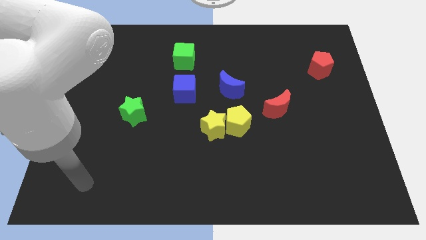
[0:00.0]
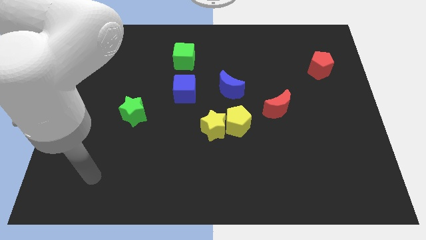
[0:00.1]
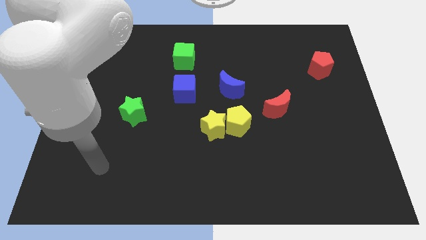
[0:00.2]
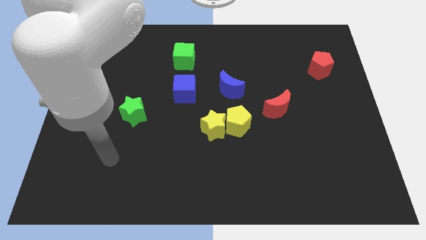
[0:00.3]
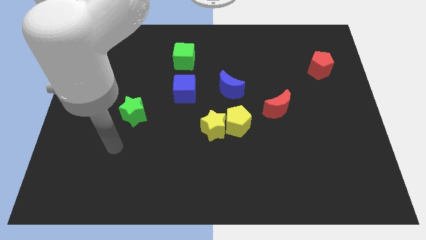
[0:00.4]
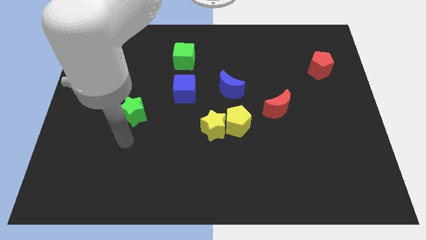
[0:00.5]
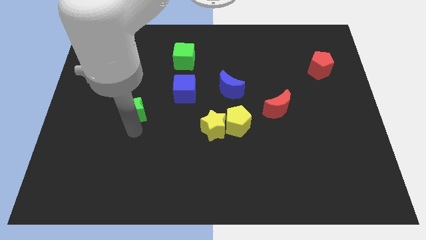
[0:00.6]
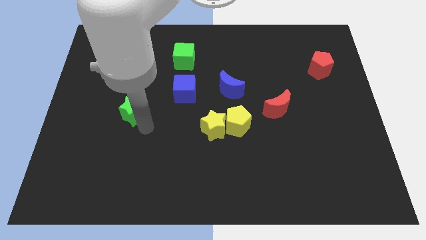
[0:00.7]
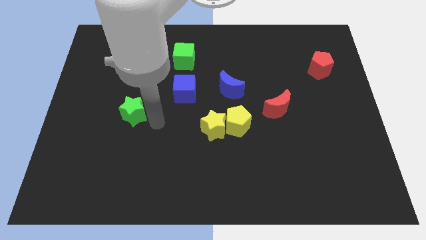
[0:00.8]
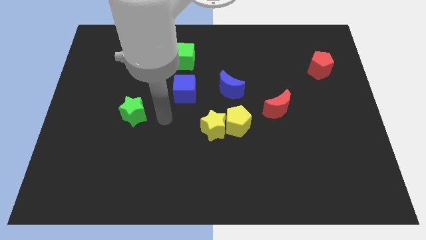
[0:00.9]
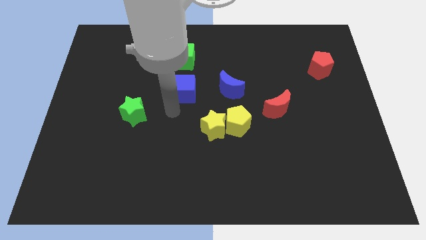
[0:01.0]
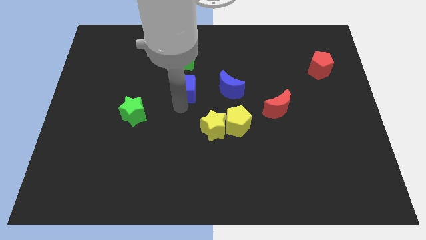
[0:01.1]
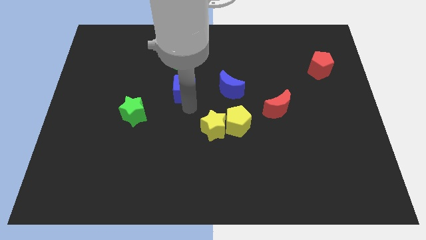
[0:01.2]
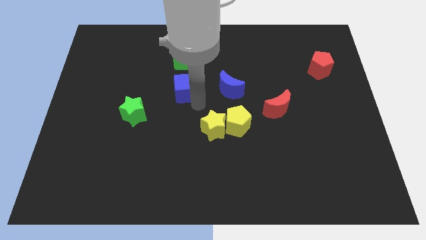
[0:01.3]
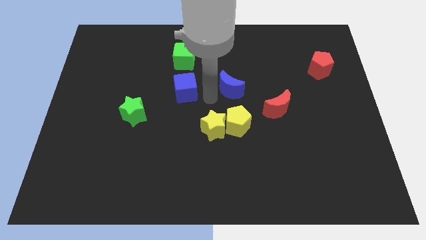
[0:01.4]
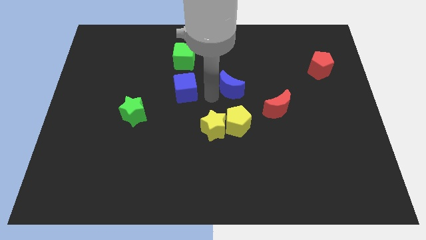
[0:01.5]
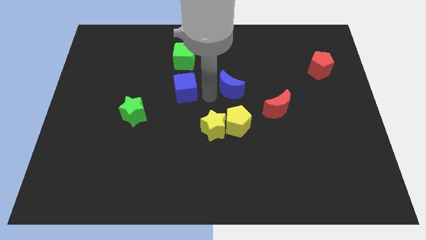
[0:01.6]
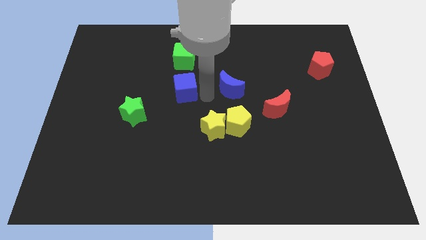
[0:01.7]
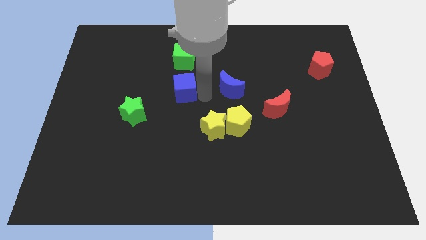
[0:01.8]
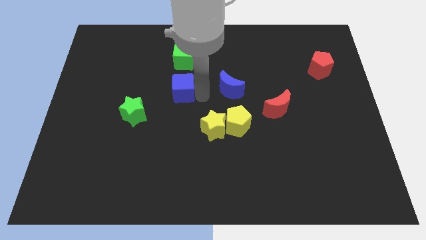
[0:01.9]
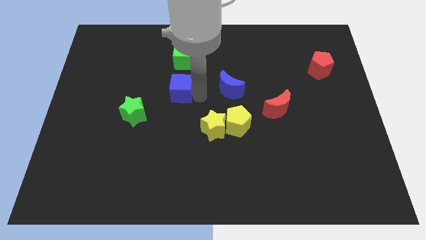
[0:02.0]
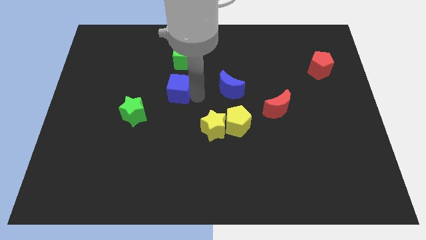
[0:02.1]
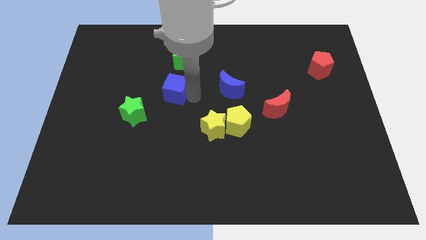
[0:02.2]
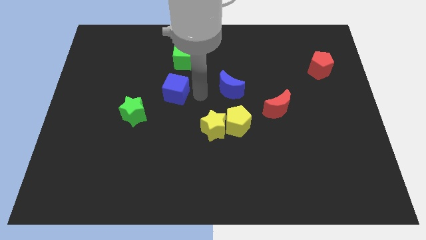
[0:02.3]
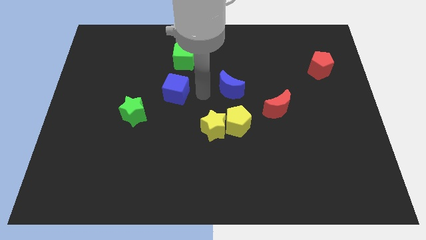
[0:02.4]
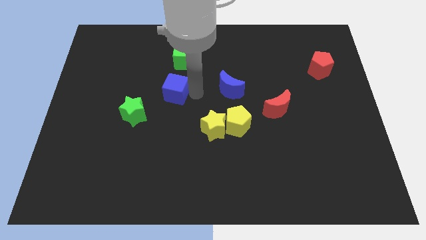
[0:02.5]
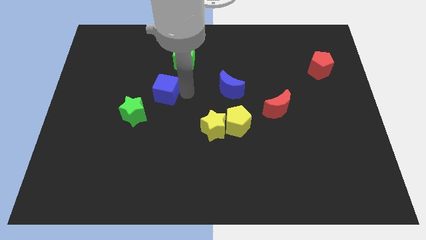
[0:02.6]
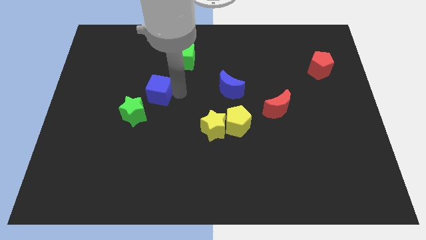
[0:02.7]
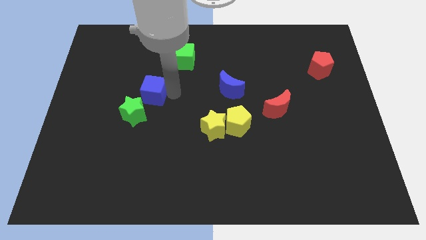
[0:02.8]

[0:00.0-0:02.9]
push the blue cube a bit to the left

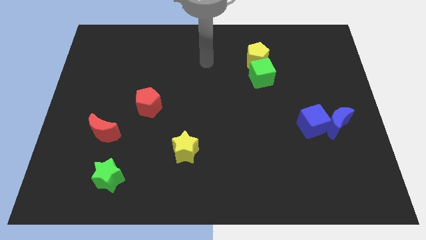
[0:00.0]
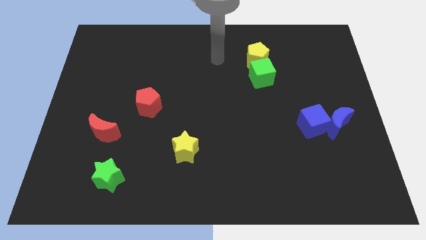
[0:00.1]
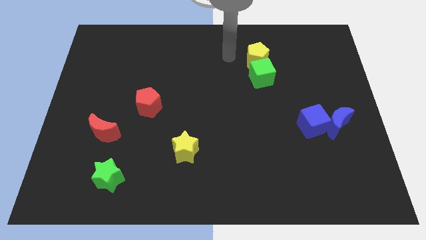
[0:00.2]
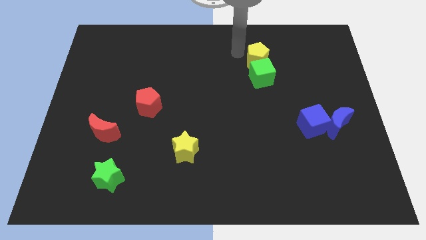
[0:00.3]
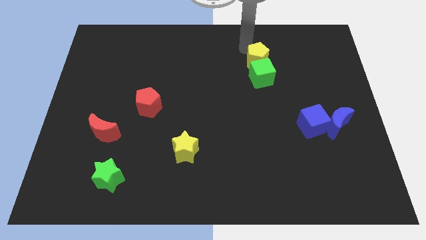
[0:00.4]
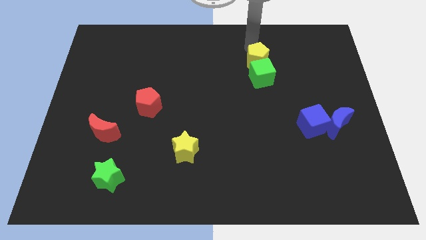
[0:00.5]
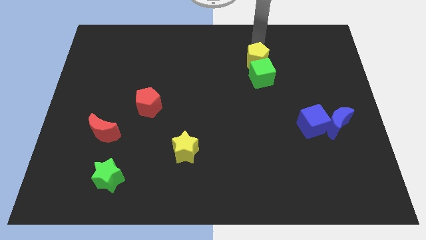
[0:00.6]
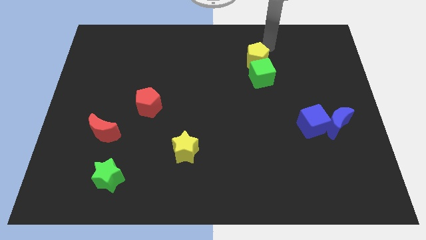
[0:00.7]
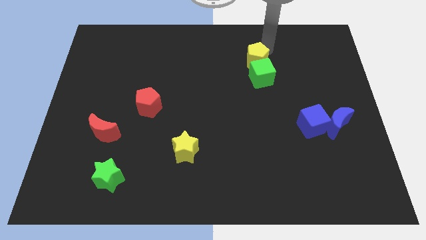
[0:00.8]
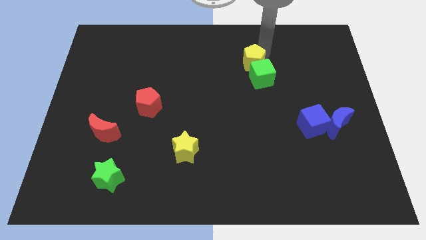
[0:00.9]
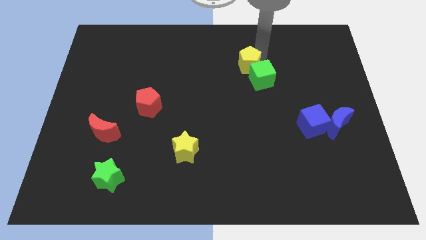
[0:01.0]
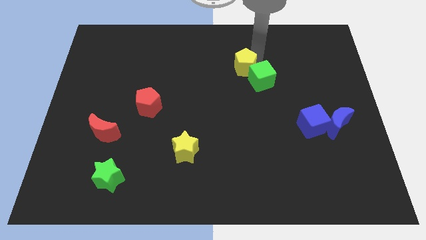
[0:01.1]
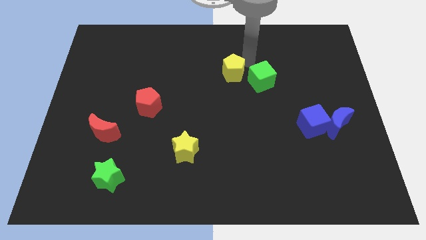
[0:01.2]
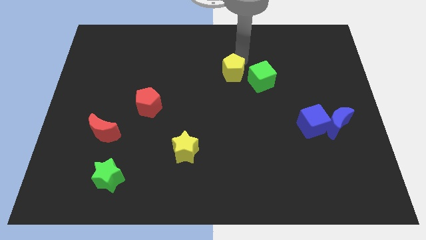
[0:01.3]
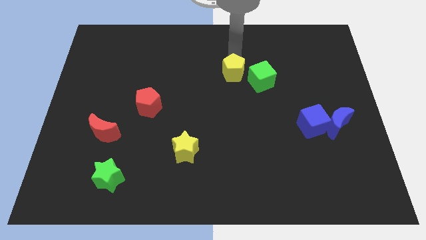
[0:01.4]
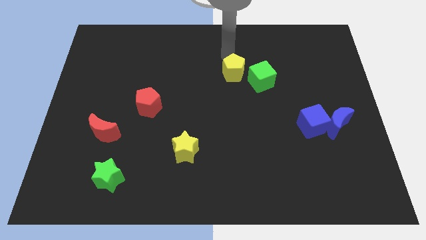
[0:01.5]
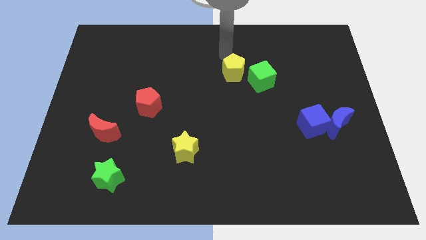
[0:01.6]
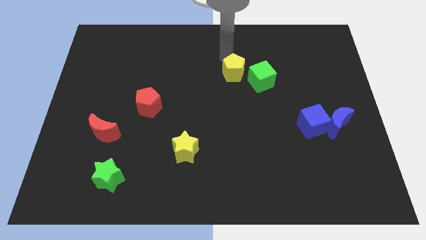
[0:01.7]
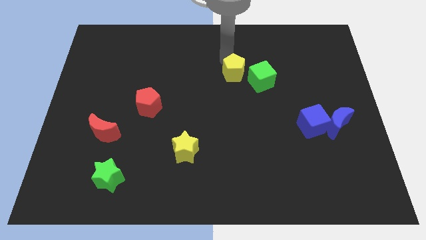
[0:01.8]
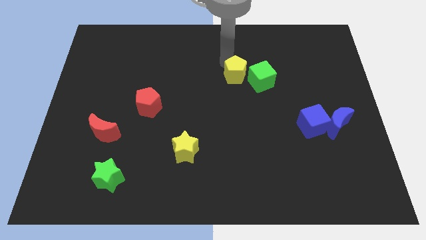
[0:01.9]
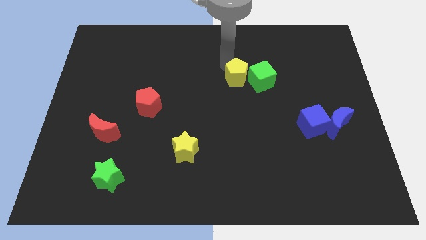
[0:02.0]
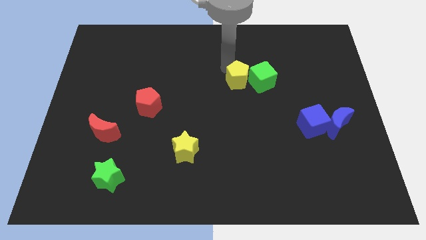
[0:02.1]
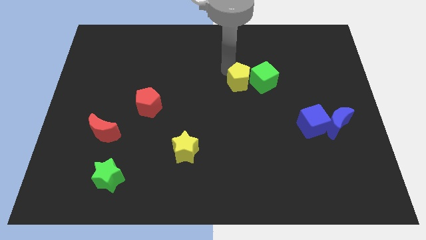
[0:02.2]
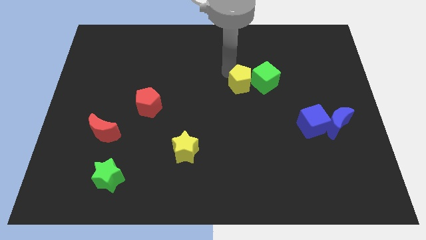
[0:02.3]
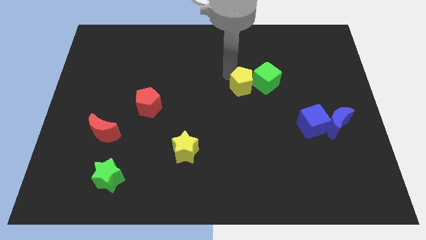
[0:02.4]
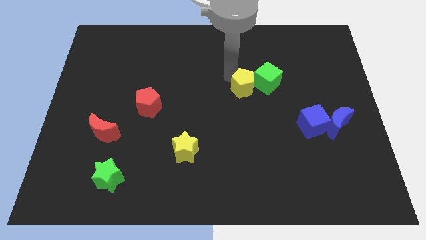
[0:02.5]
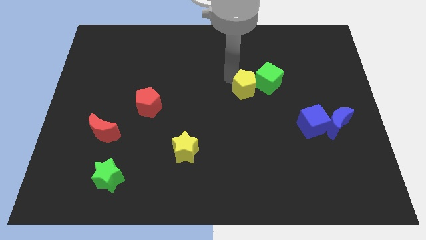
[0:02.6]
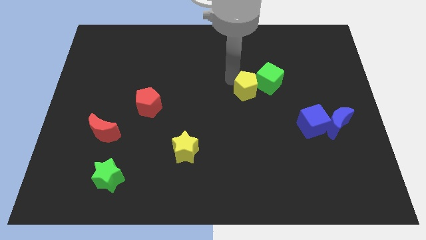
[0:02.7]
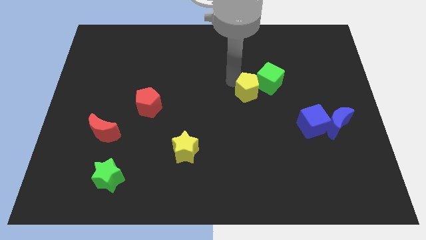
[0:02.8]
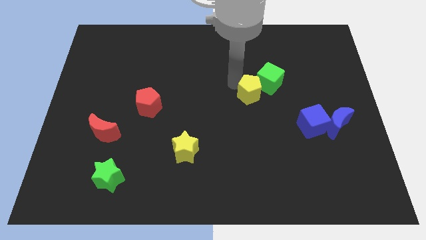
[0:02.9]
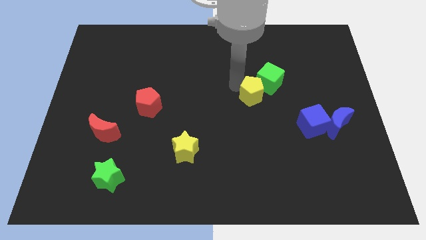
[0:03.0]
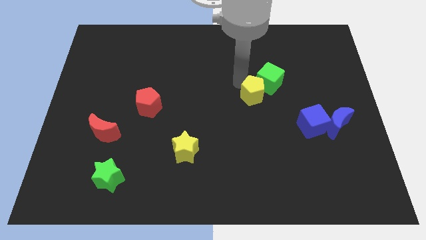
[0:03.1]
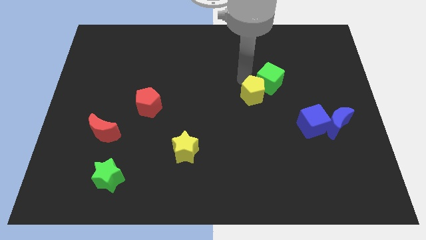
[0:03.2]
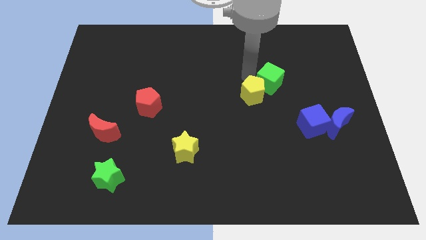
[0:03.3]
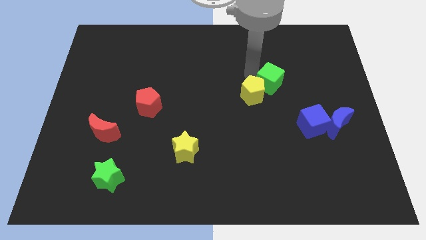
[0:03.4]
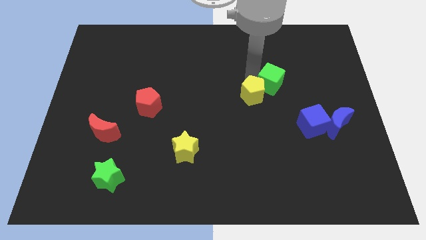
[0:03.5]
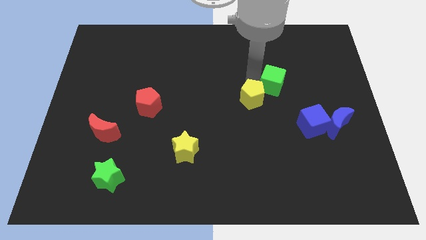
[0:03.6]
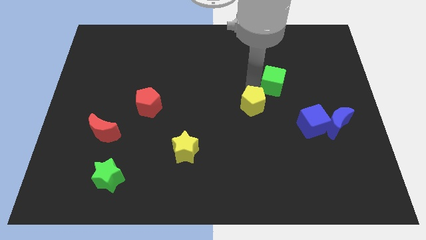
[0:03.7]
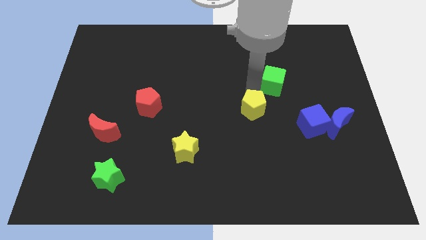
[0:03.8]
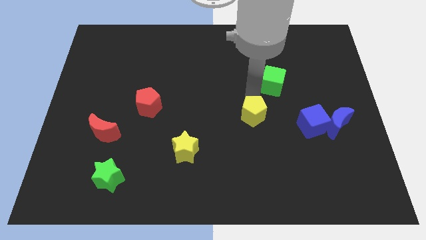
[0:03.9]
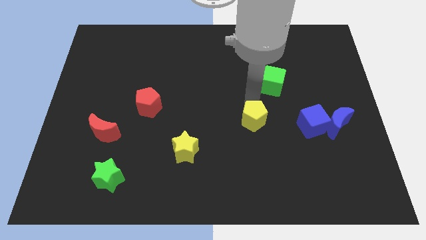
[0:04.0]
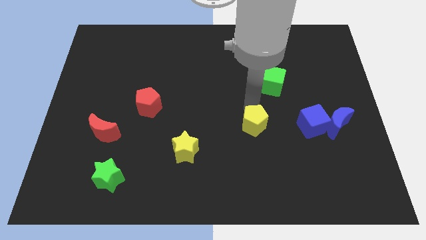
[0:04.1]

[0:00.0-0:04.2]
push the yellow pentagon down

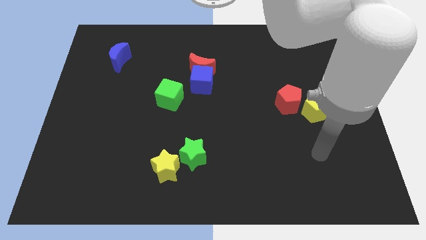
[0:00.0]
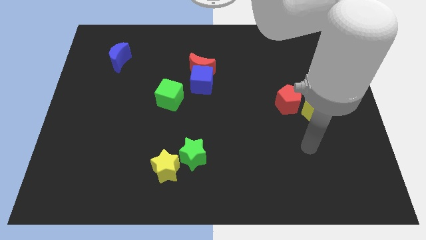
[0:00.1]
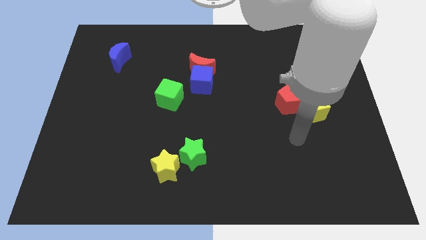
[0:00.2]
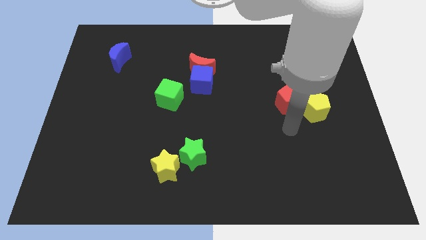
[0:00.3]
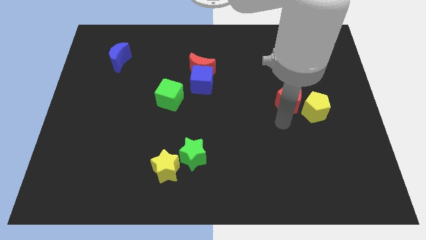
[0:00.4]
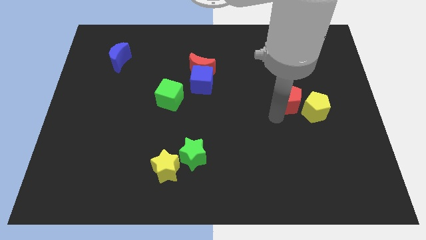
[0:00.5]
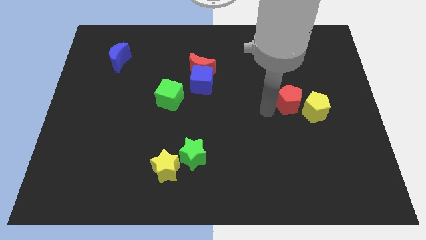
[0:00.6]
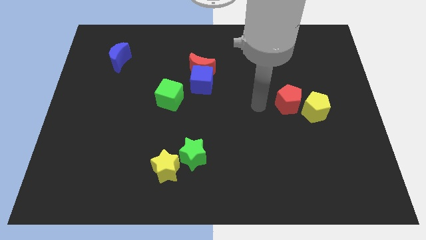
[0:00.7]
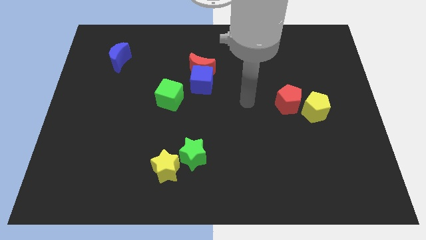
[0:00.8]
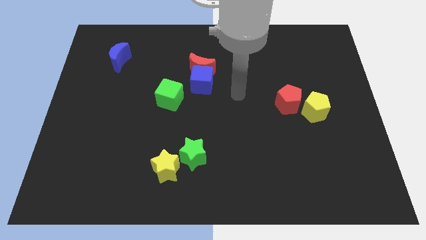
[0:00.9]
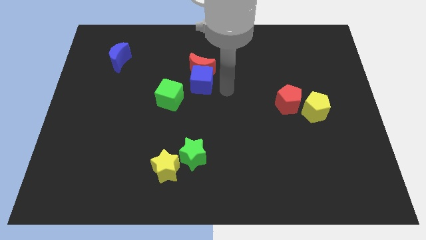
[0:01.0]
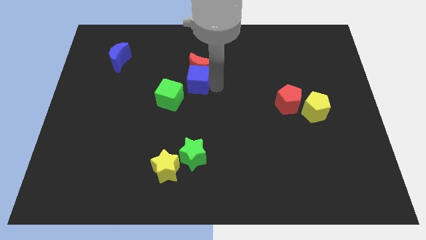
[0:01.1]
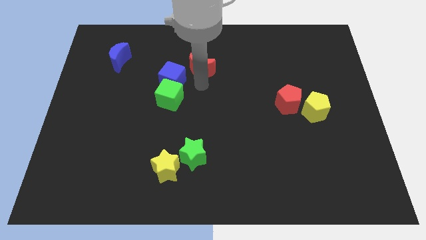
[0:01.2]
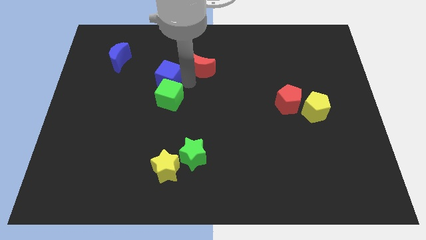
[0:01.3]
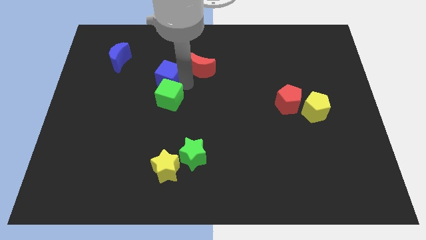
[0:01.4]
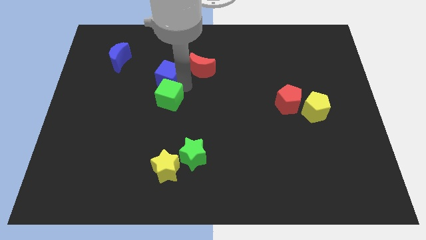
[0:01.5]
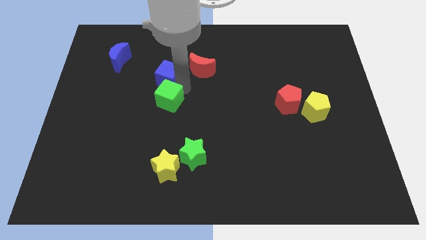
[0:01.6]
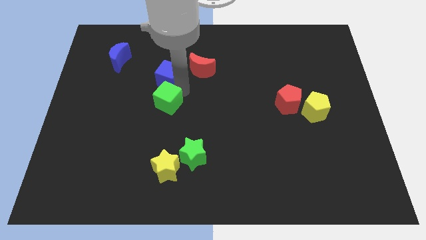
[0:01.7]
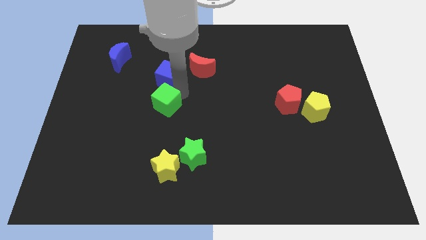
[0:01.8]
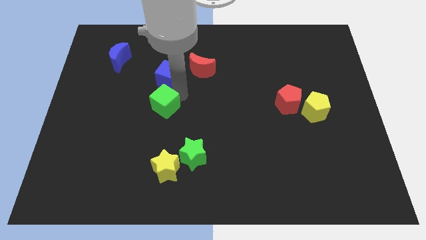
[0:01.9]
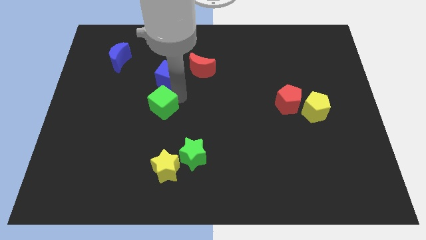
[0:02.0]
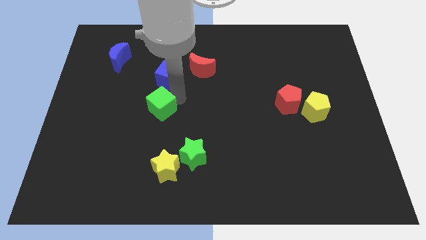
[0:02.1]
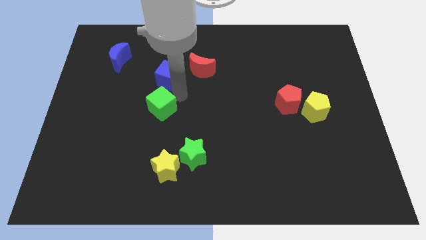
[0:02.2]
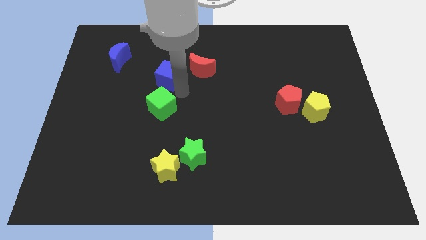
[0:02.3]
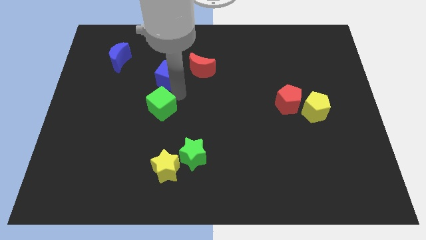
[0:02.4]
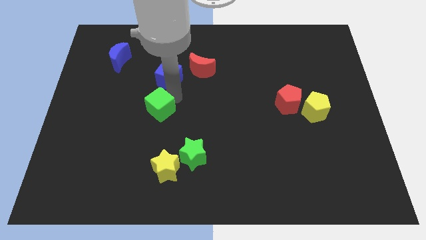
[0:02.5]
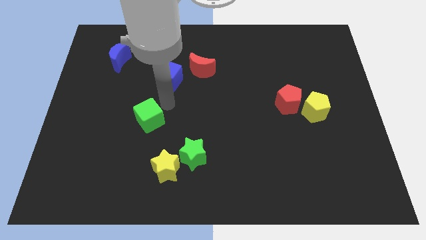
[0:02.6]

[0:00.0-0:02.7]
slightly push the green cube downwards and then to the left
